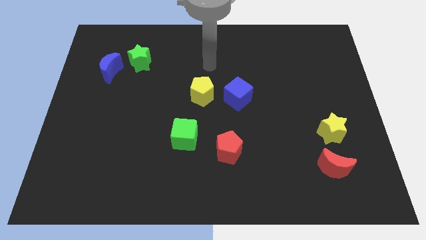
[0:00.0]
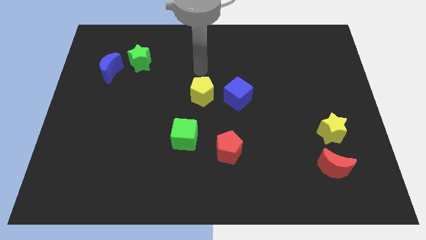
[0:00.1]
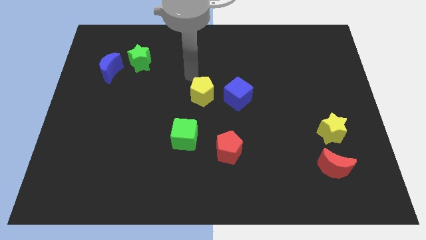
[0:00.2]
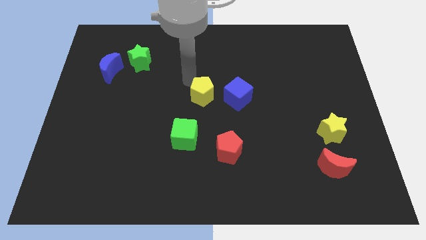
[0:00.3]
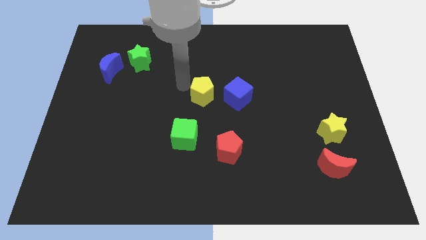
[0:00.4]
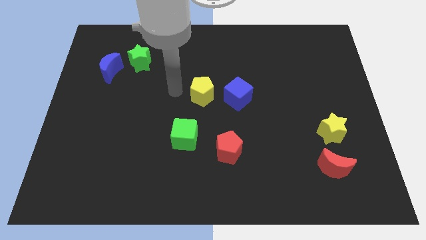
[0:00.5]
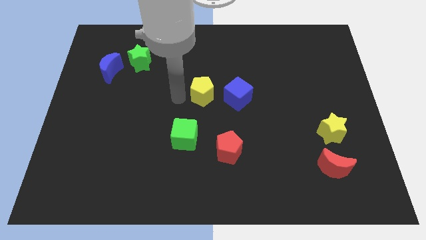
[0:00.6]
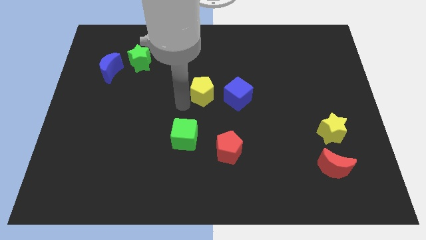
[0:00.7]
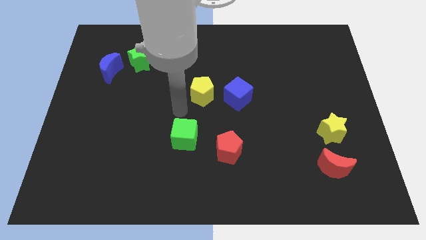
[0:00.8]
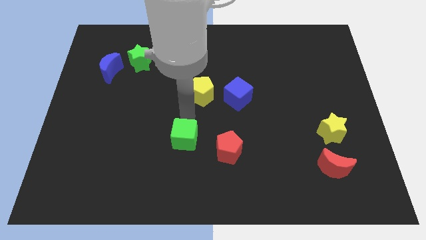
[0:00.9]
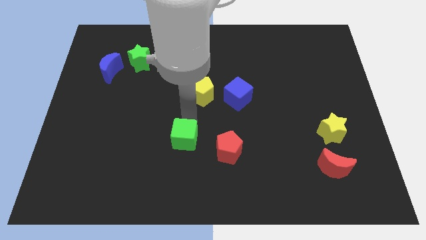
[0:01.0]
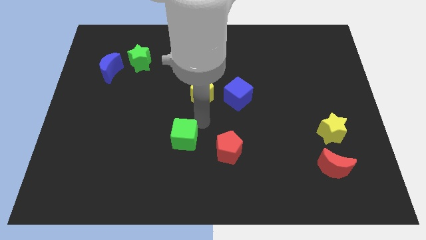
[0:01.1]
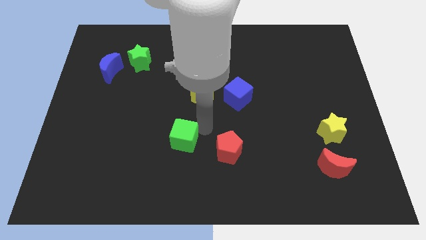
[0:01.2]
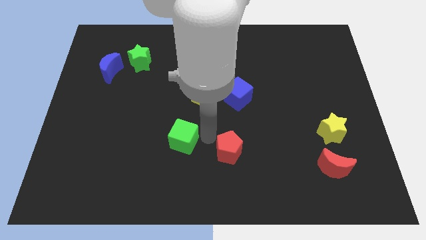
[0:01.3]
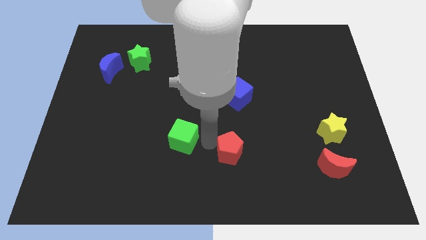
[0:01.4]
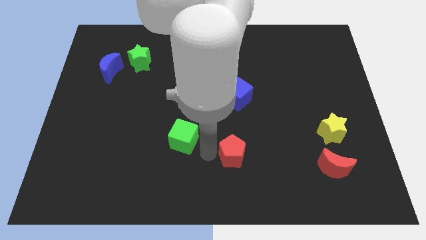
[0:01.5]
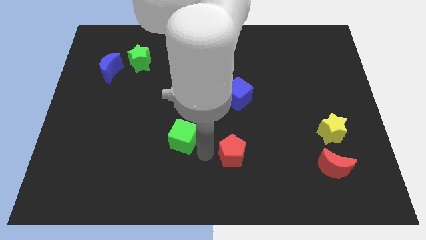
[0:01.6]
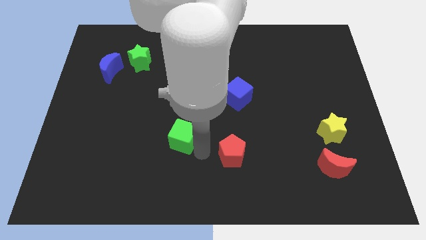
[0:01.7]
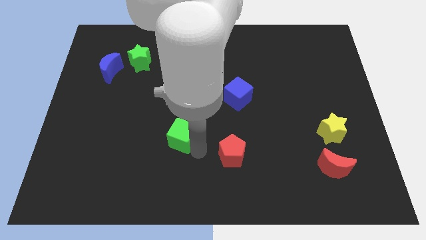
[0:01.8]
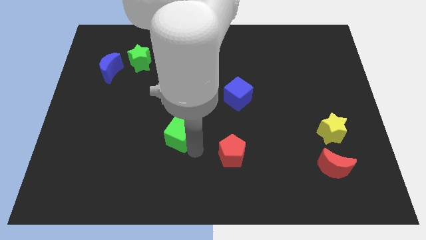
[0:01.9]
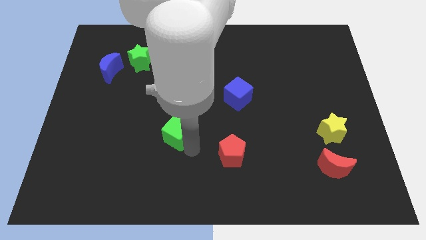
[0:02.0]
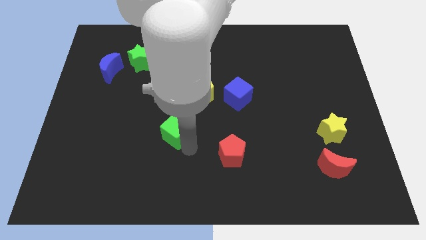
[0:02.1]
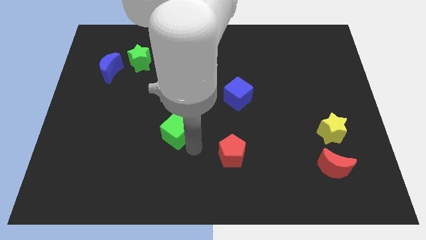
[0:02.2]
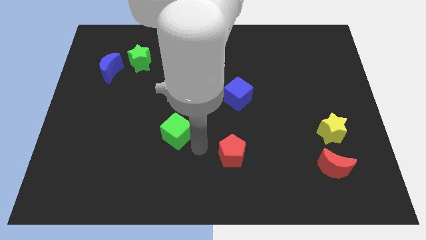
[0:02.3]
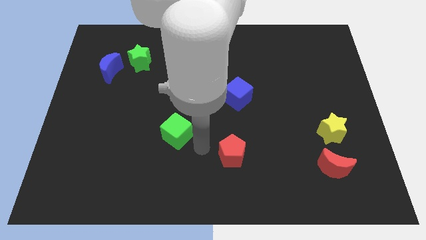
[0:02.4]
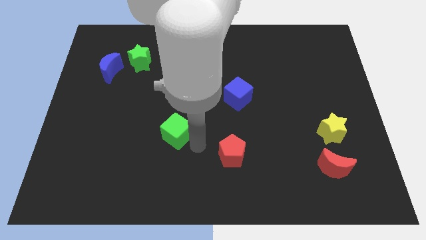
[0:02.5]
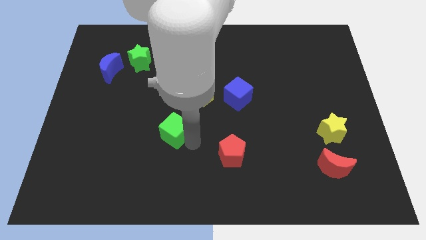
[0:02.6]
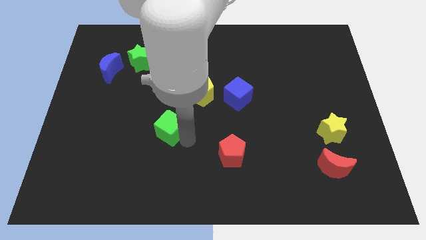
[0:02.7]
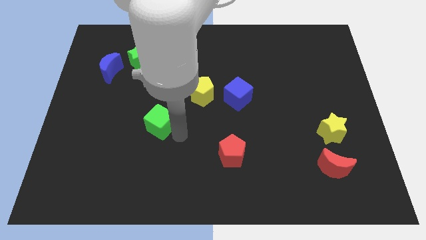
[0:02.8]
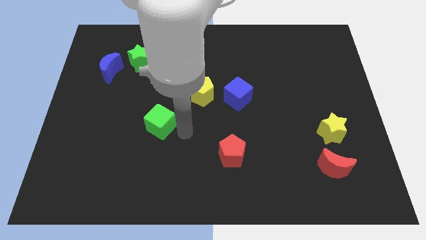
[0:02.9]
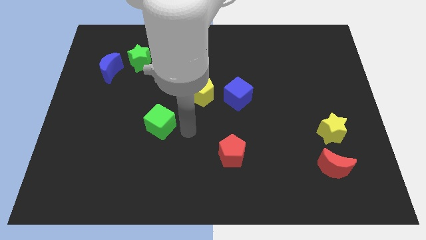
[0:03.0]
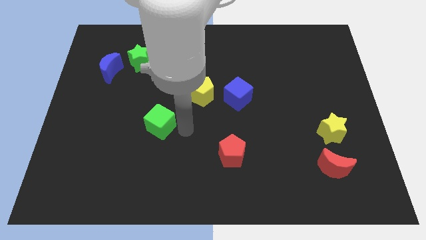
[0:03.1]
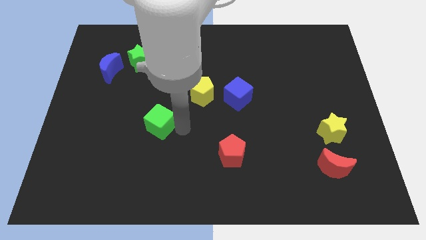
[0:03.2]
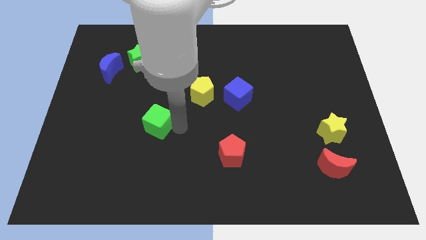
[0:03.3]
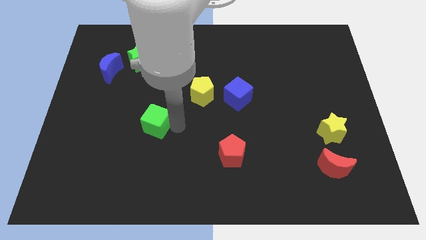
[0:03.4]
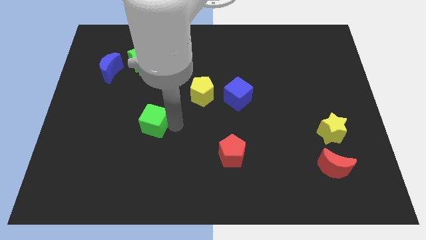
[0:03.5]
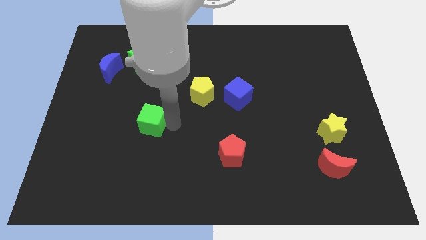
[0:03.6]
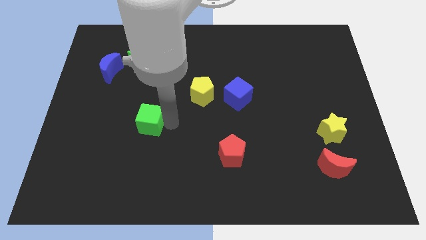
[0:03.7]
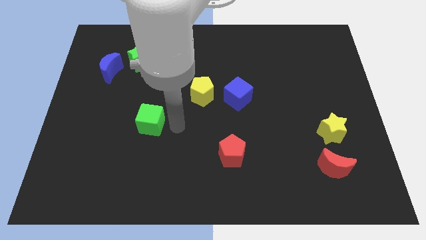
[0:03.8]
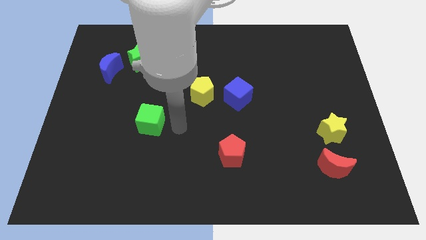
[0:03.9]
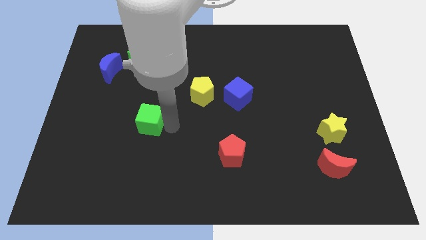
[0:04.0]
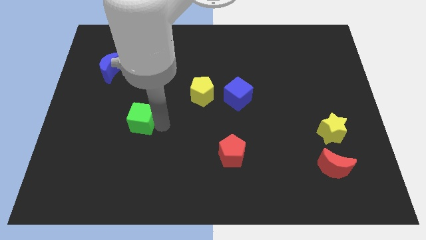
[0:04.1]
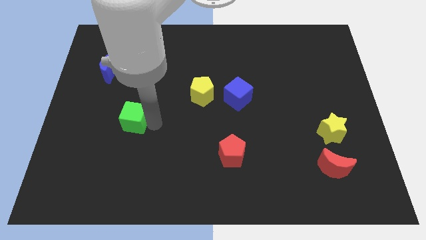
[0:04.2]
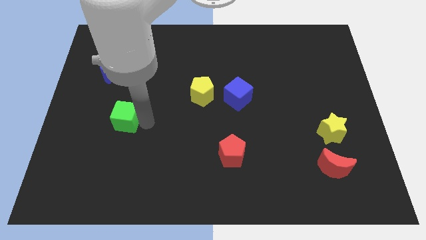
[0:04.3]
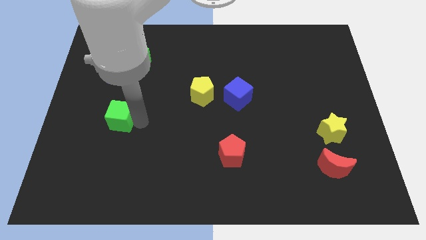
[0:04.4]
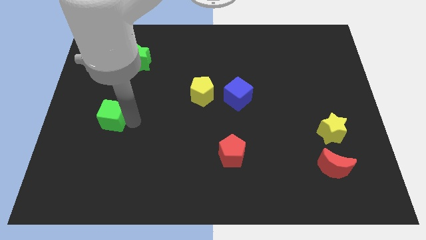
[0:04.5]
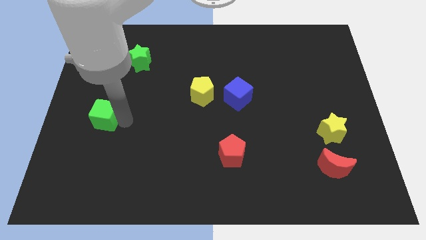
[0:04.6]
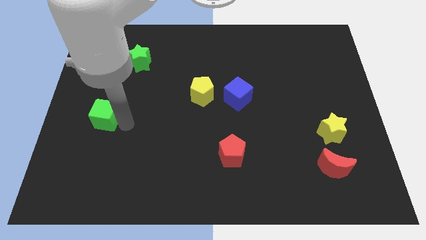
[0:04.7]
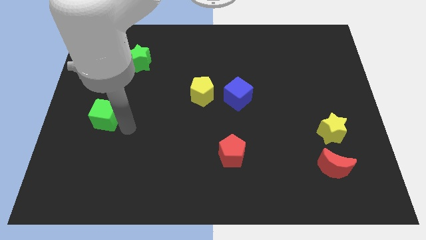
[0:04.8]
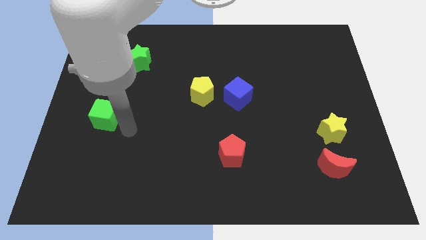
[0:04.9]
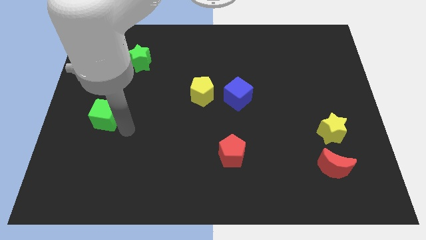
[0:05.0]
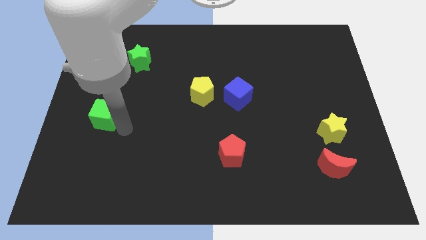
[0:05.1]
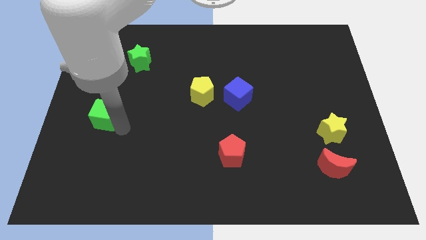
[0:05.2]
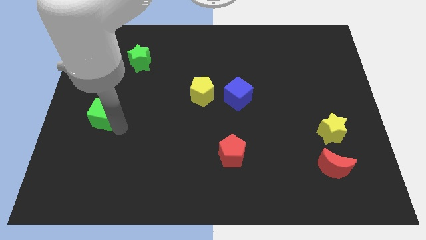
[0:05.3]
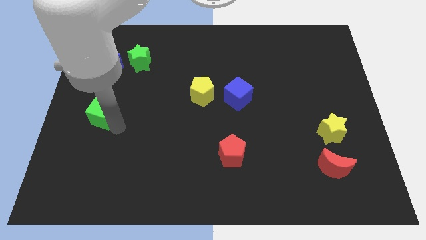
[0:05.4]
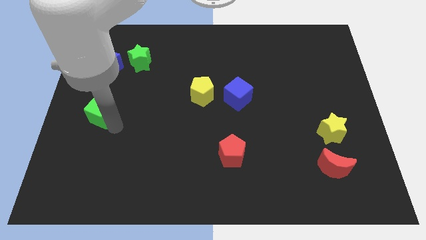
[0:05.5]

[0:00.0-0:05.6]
push the green cube to the left side

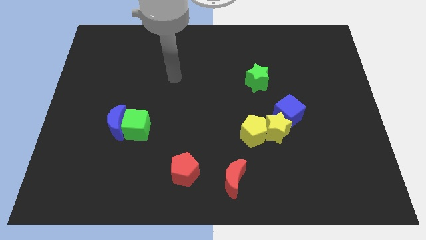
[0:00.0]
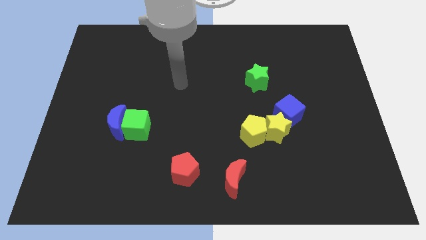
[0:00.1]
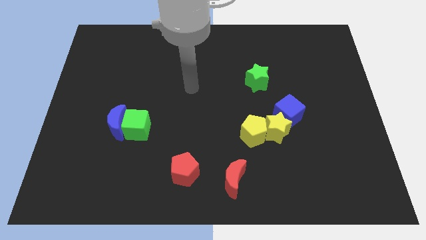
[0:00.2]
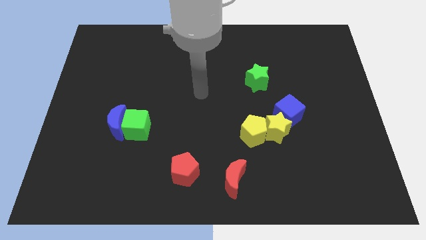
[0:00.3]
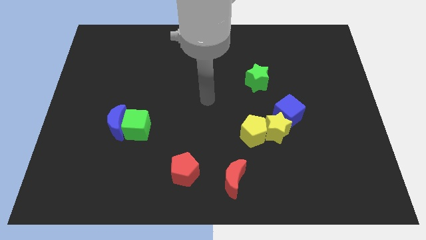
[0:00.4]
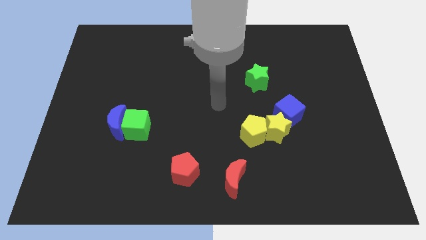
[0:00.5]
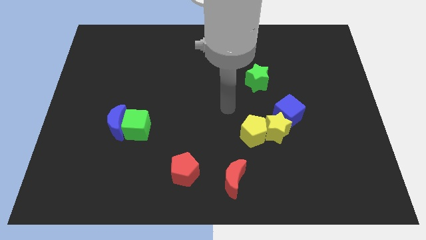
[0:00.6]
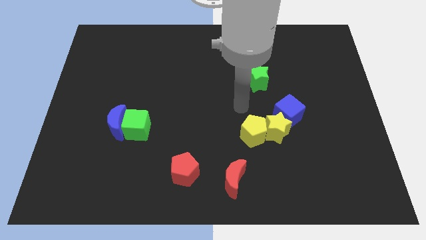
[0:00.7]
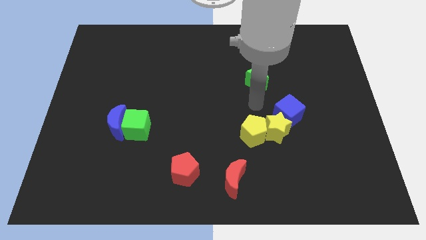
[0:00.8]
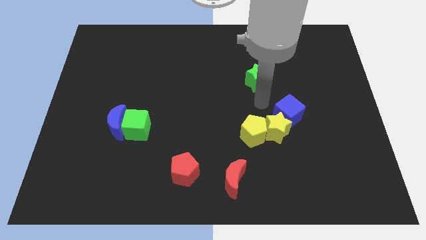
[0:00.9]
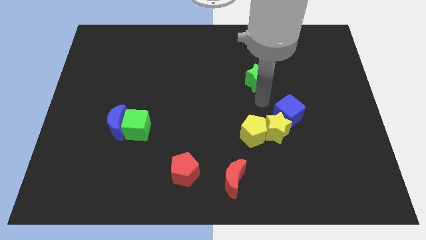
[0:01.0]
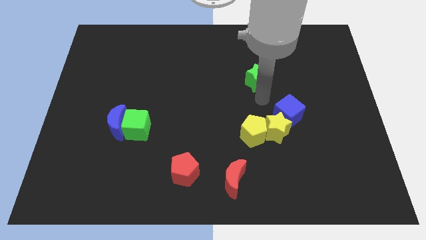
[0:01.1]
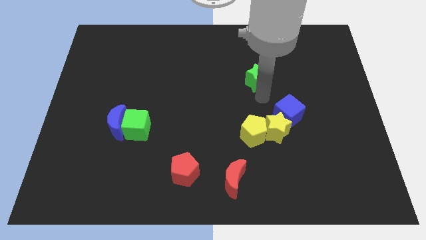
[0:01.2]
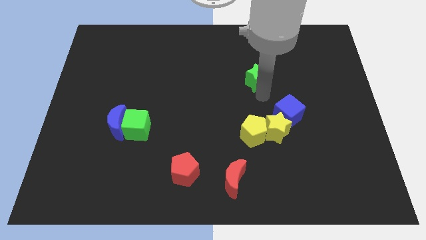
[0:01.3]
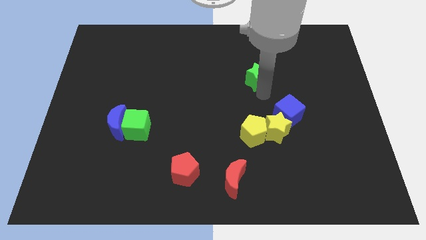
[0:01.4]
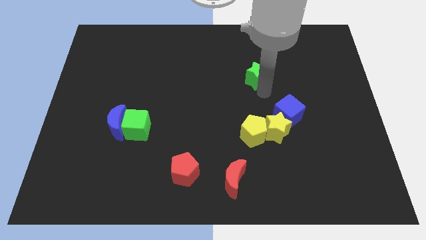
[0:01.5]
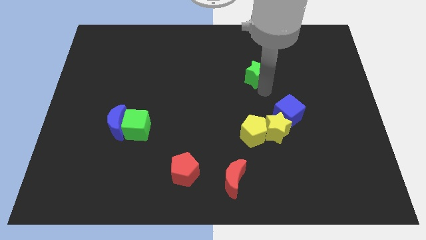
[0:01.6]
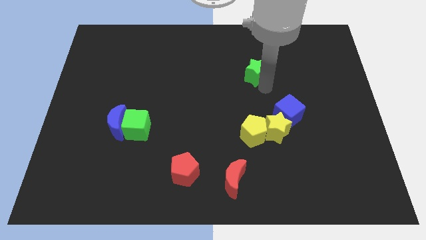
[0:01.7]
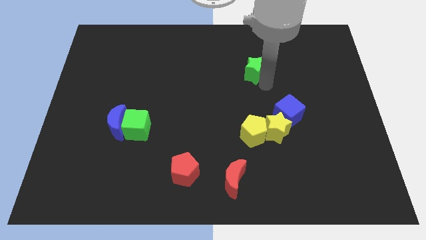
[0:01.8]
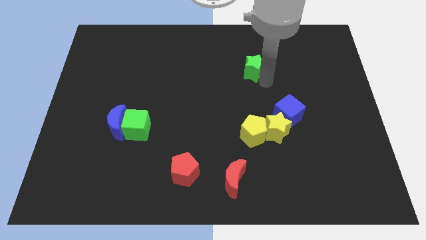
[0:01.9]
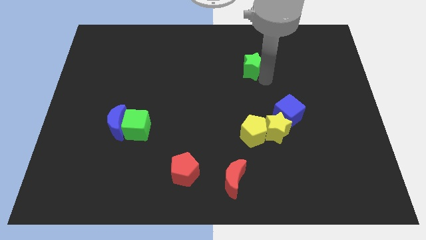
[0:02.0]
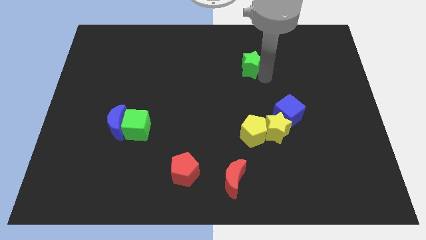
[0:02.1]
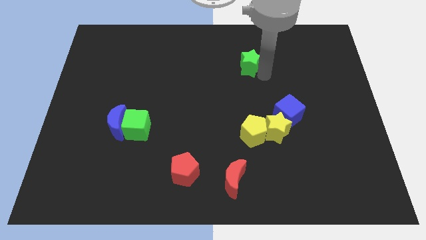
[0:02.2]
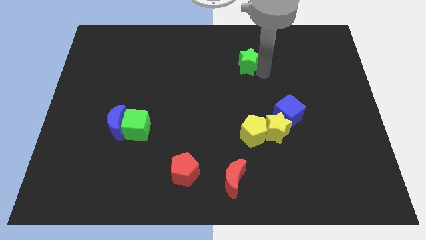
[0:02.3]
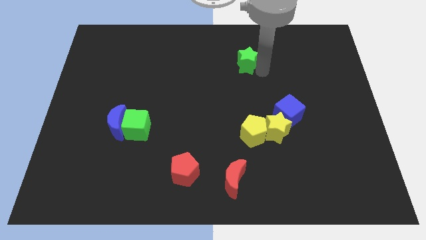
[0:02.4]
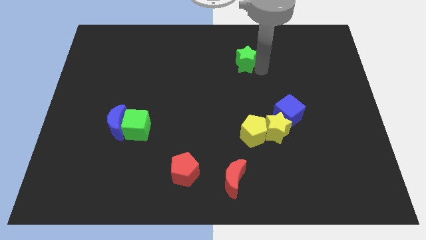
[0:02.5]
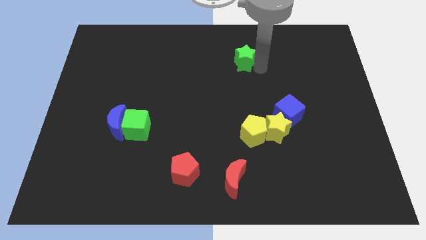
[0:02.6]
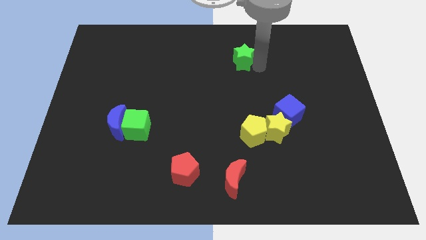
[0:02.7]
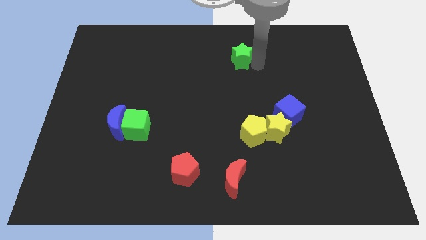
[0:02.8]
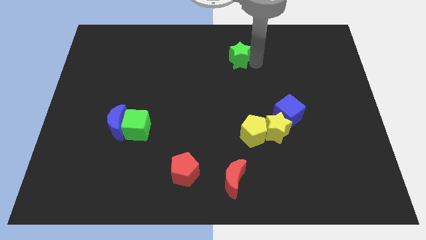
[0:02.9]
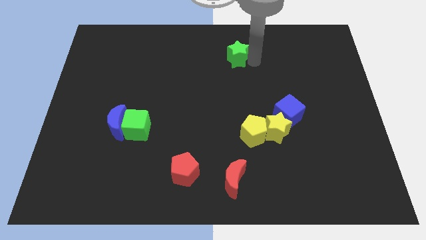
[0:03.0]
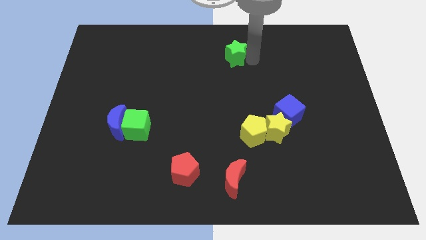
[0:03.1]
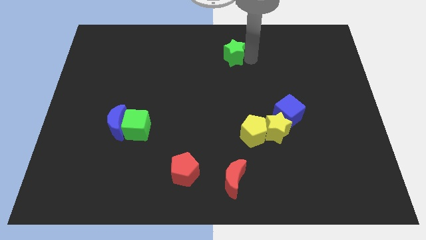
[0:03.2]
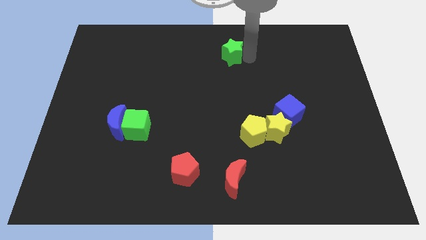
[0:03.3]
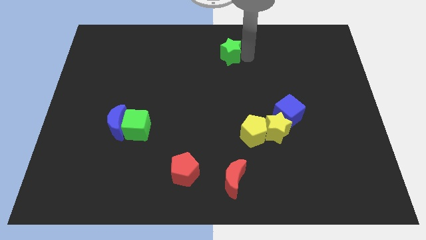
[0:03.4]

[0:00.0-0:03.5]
put the green star to the top
